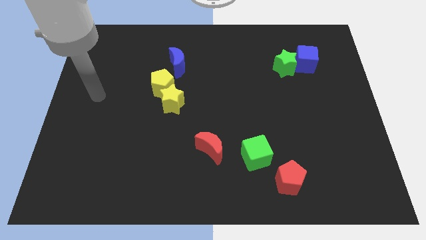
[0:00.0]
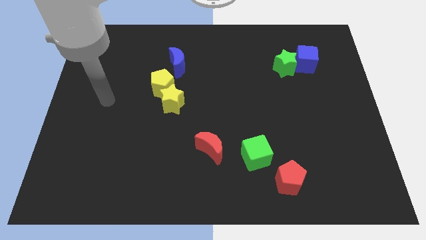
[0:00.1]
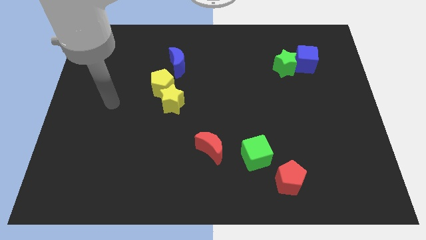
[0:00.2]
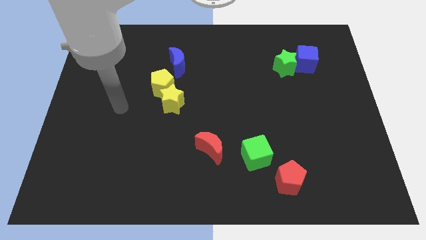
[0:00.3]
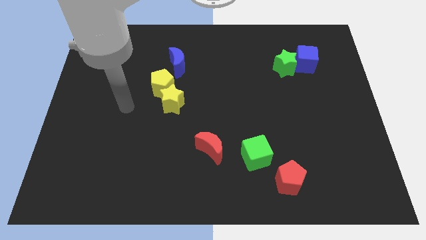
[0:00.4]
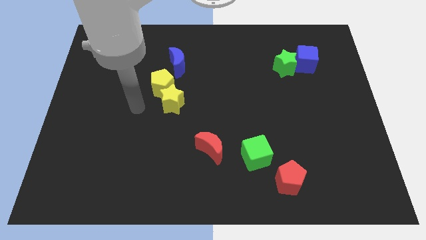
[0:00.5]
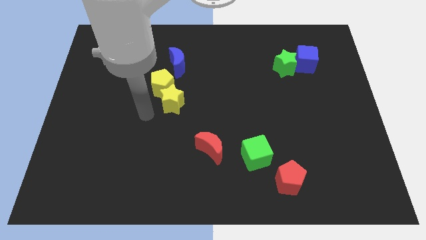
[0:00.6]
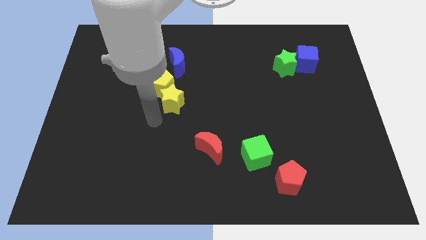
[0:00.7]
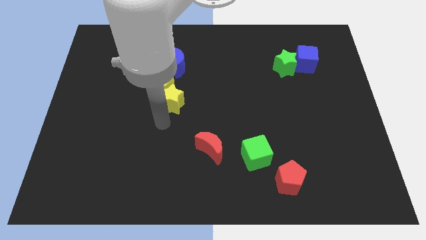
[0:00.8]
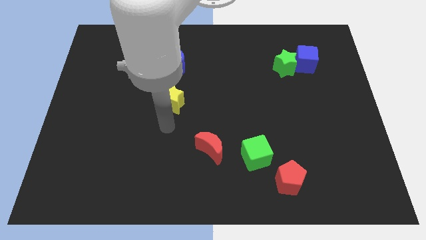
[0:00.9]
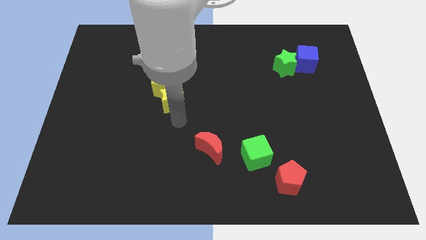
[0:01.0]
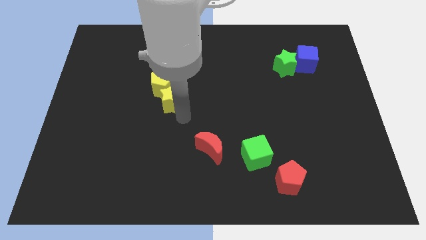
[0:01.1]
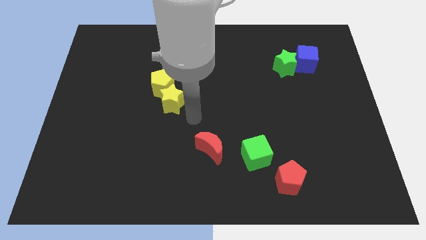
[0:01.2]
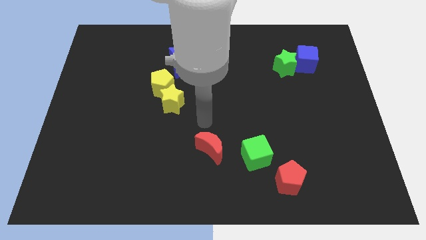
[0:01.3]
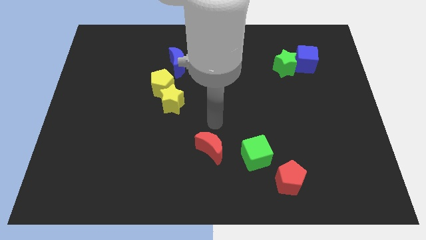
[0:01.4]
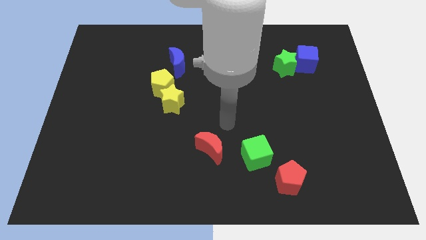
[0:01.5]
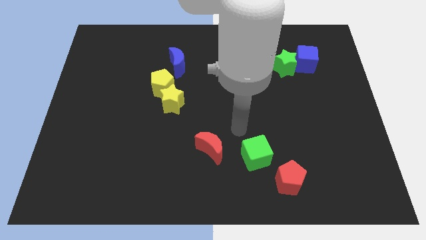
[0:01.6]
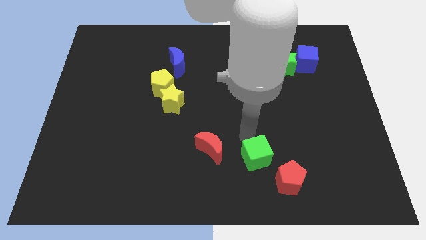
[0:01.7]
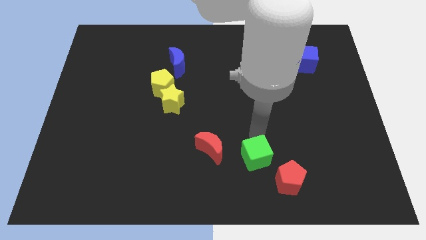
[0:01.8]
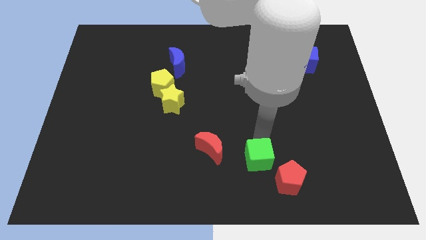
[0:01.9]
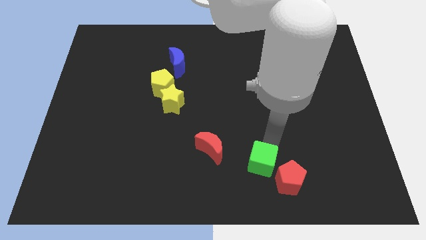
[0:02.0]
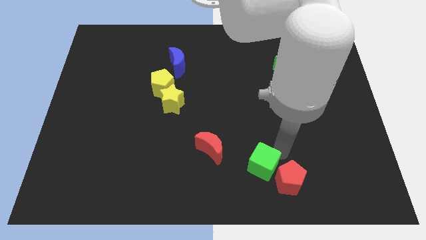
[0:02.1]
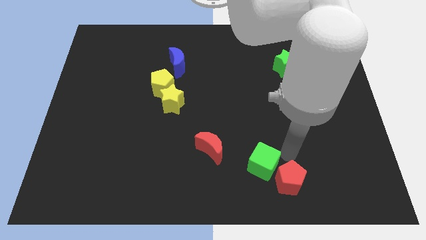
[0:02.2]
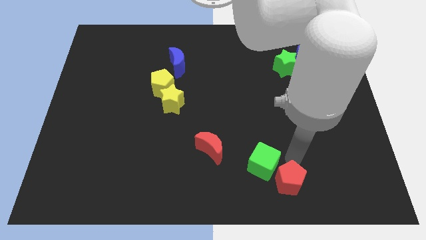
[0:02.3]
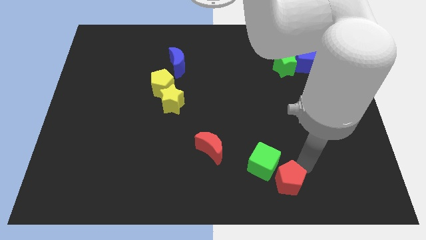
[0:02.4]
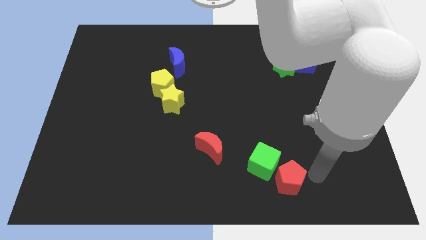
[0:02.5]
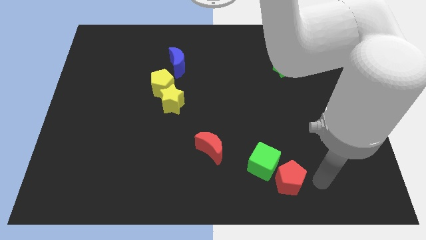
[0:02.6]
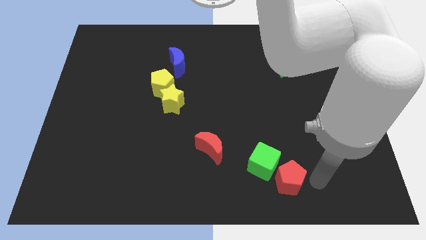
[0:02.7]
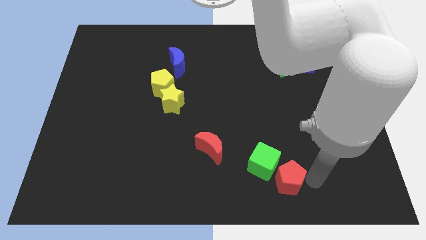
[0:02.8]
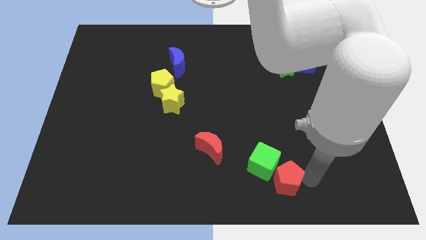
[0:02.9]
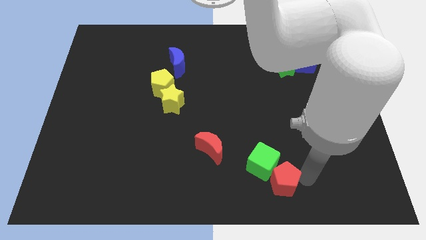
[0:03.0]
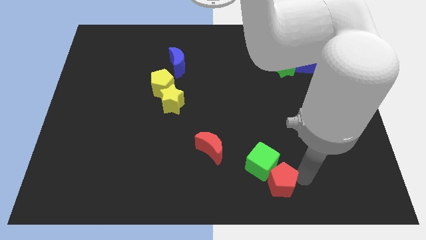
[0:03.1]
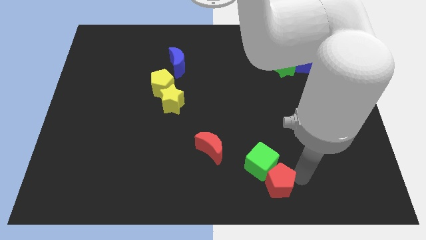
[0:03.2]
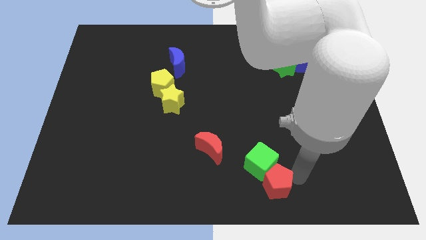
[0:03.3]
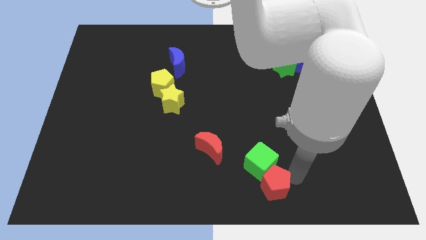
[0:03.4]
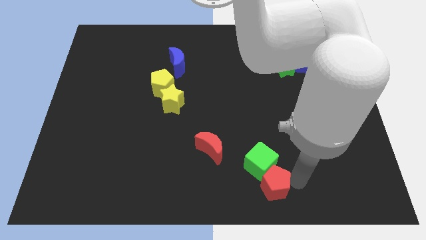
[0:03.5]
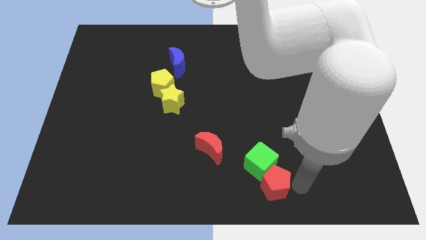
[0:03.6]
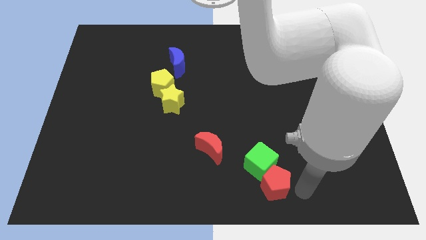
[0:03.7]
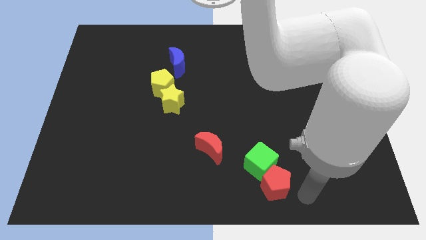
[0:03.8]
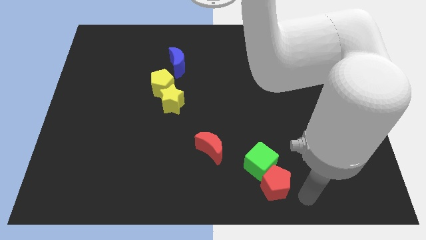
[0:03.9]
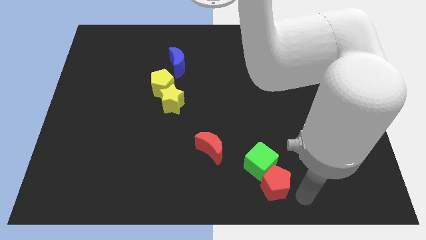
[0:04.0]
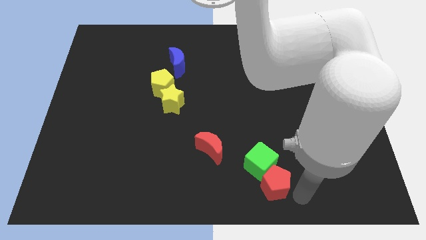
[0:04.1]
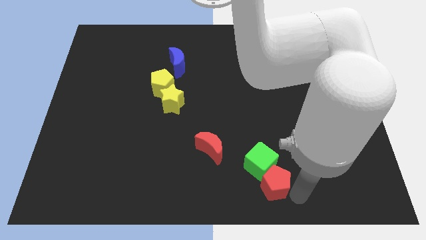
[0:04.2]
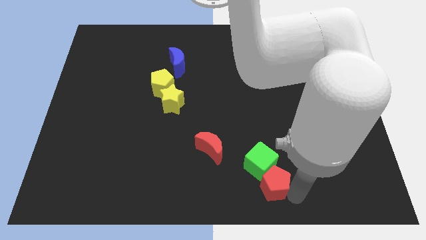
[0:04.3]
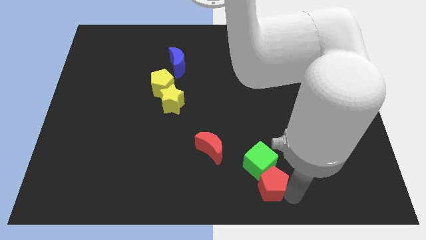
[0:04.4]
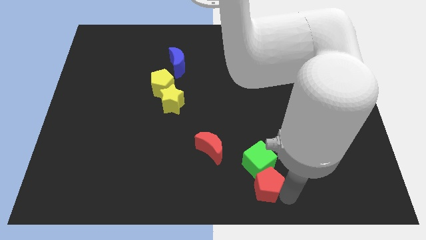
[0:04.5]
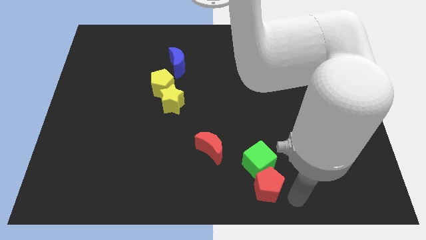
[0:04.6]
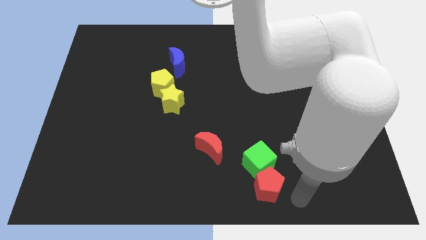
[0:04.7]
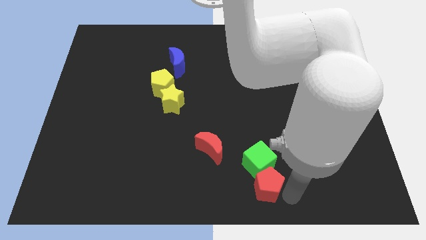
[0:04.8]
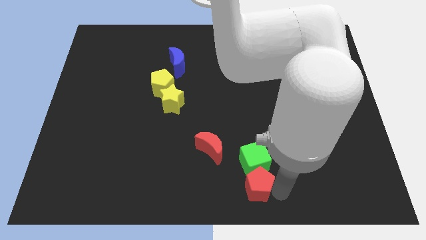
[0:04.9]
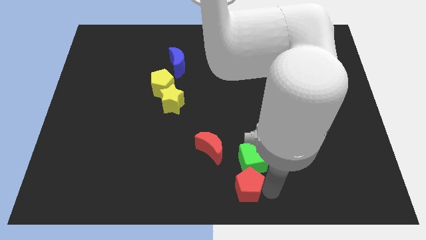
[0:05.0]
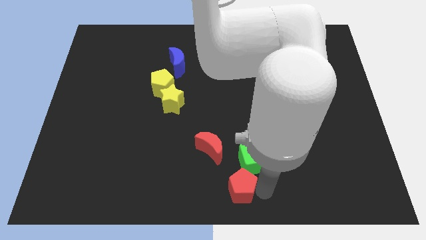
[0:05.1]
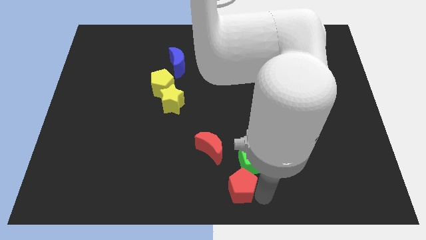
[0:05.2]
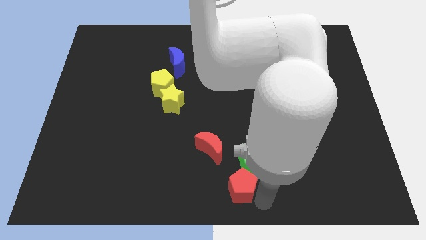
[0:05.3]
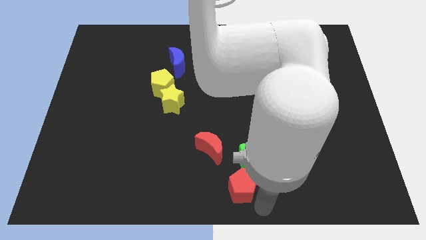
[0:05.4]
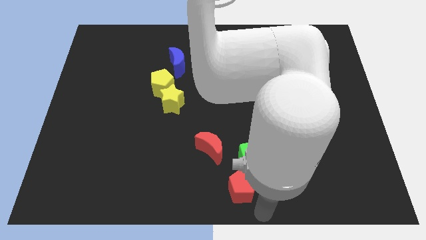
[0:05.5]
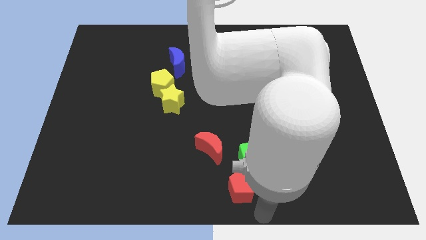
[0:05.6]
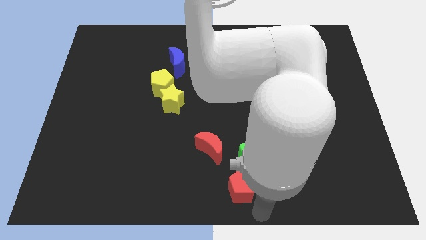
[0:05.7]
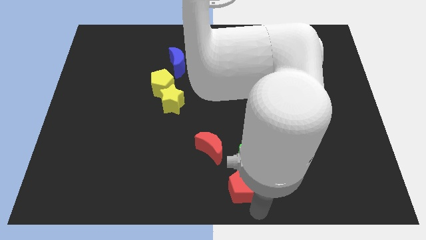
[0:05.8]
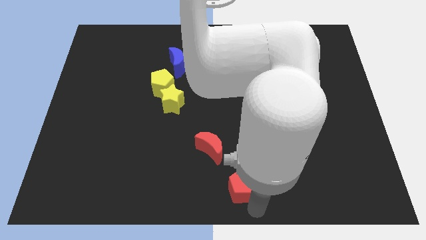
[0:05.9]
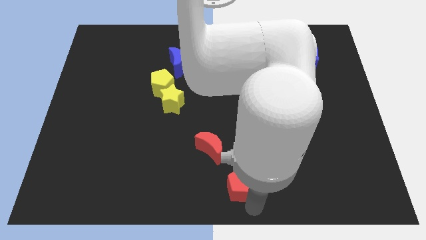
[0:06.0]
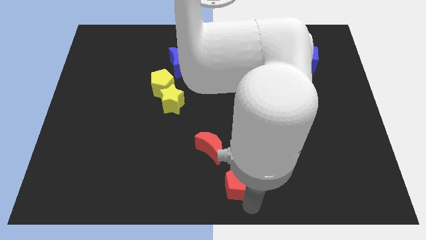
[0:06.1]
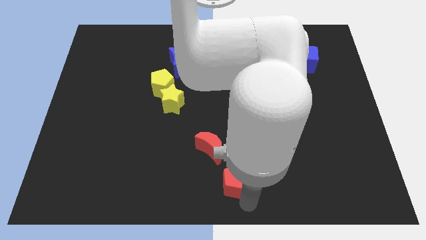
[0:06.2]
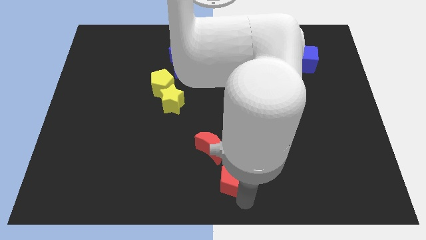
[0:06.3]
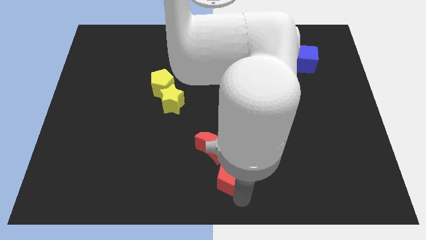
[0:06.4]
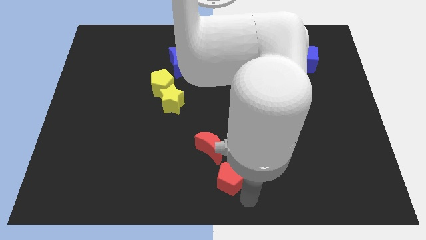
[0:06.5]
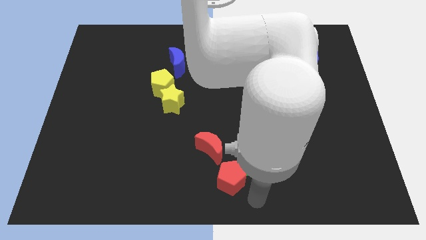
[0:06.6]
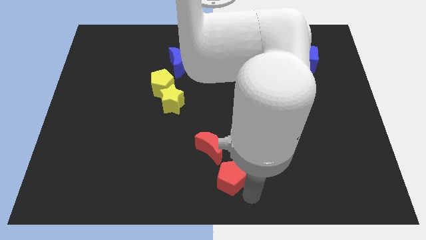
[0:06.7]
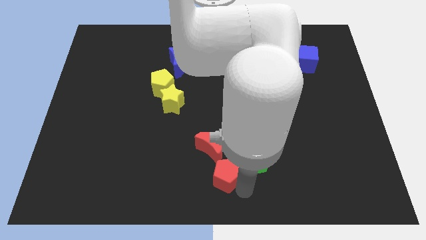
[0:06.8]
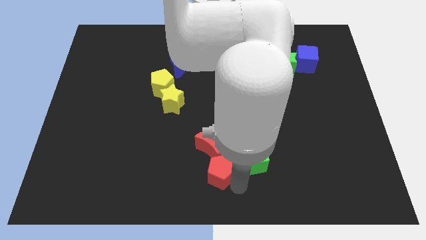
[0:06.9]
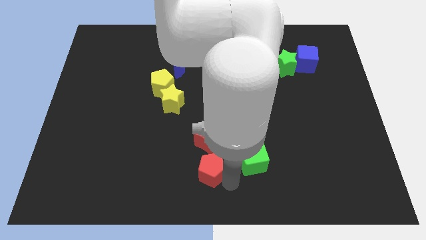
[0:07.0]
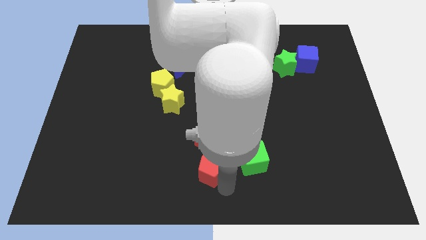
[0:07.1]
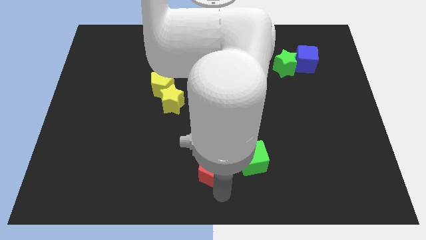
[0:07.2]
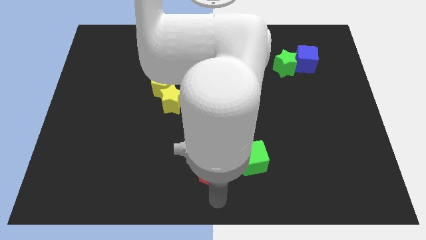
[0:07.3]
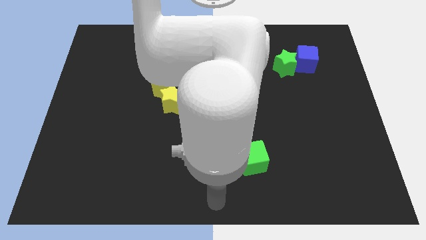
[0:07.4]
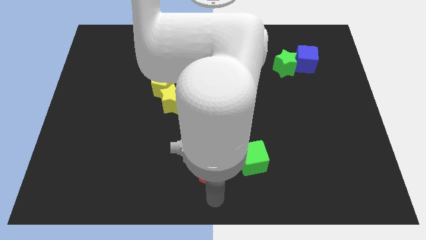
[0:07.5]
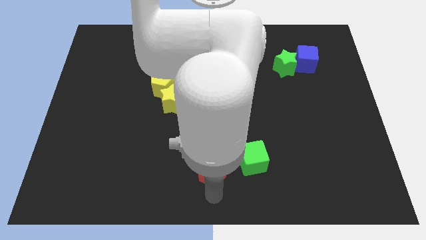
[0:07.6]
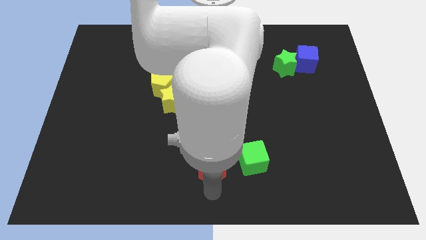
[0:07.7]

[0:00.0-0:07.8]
move the red pentagon towards the red moon
